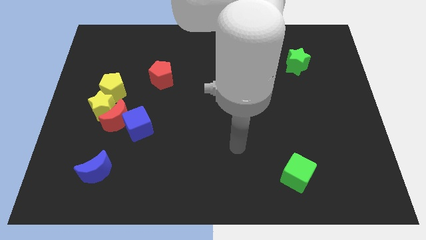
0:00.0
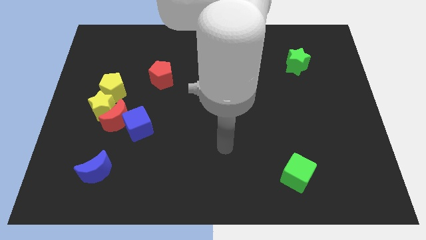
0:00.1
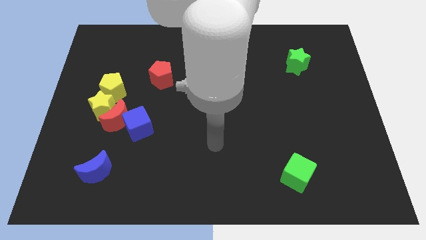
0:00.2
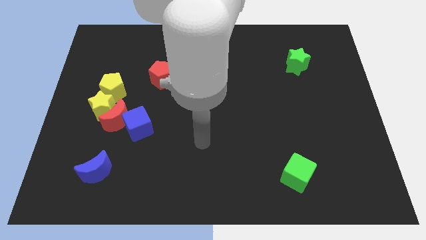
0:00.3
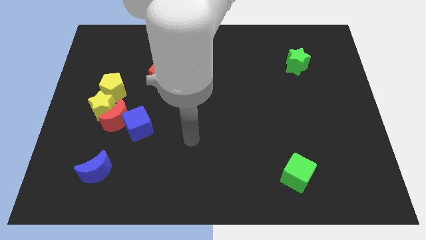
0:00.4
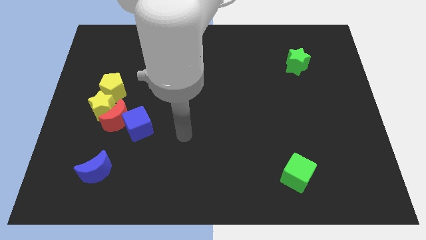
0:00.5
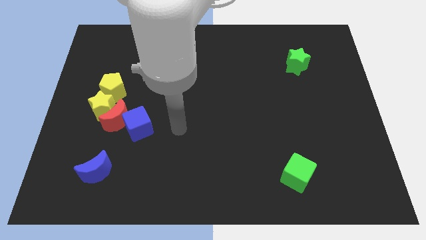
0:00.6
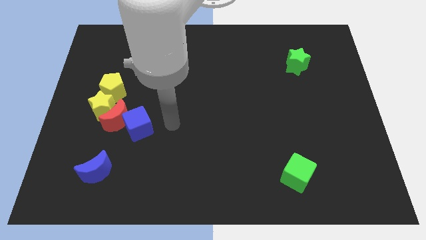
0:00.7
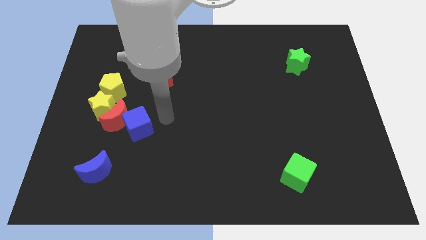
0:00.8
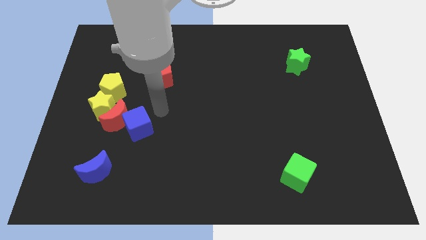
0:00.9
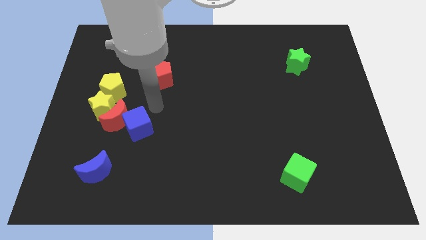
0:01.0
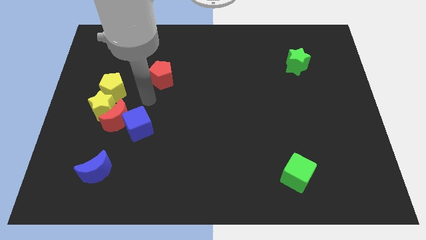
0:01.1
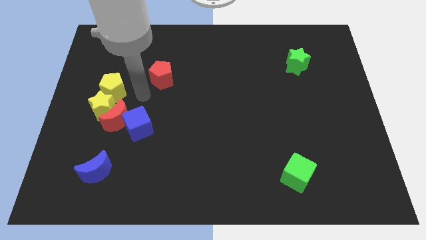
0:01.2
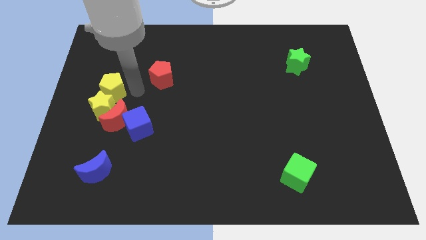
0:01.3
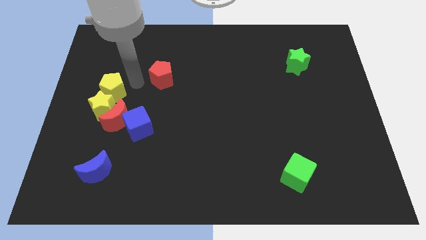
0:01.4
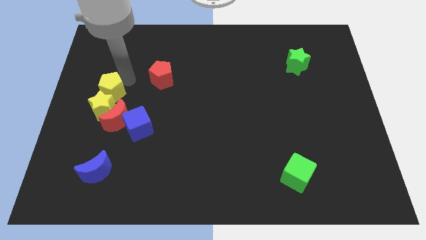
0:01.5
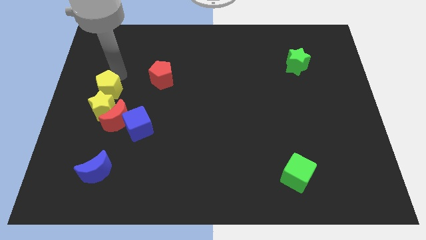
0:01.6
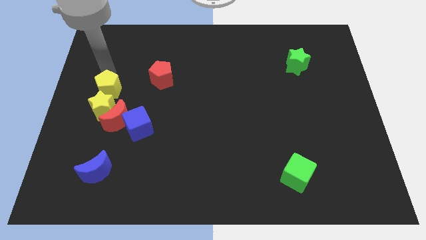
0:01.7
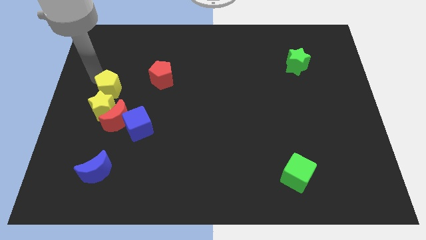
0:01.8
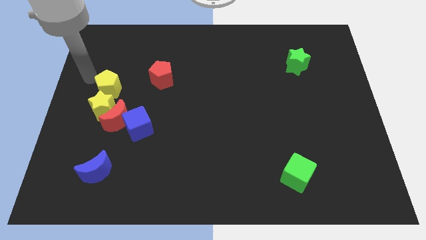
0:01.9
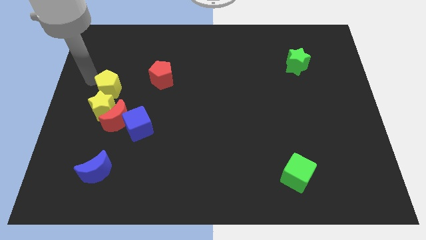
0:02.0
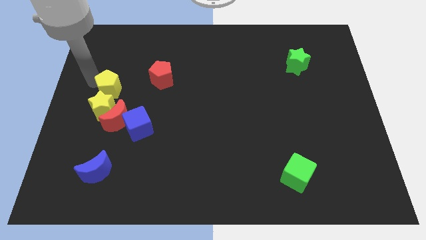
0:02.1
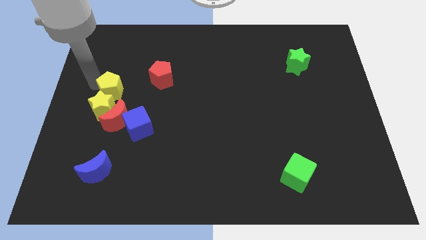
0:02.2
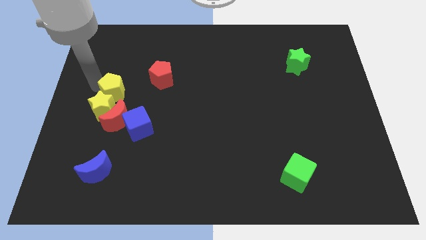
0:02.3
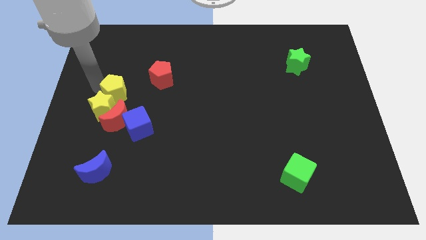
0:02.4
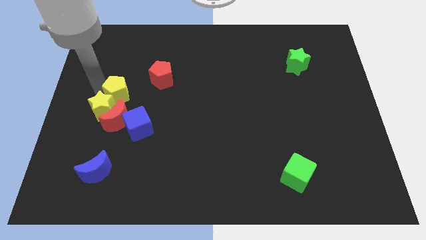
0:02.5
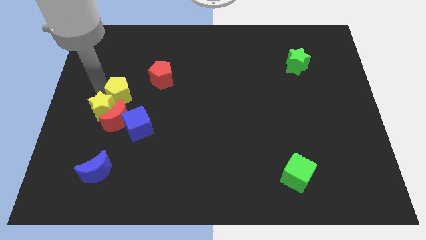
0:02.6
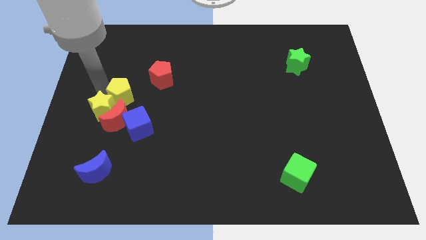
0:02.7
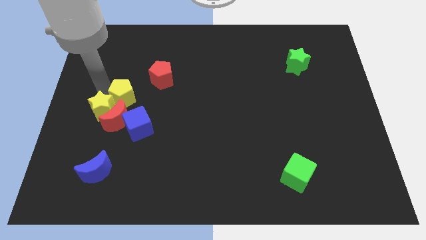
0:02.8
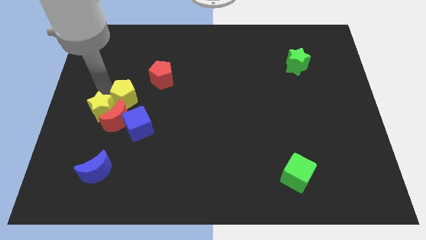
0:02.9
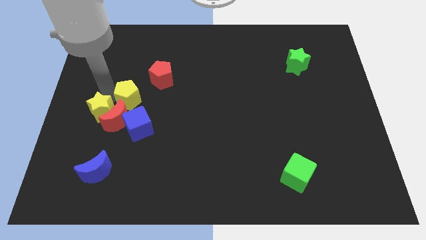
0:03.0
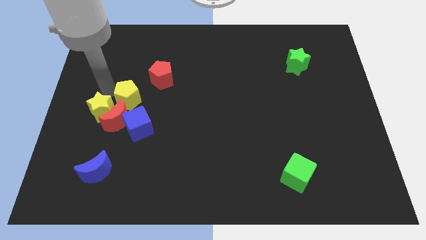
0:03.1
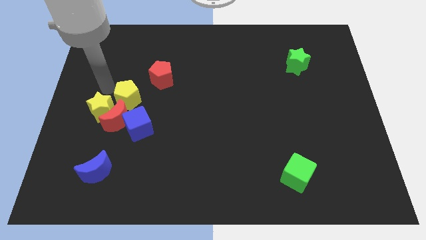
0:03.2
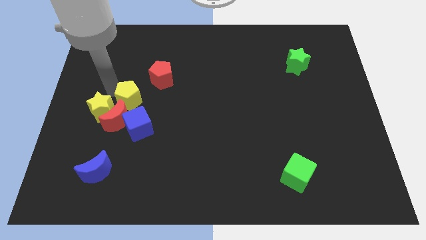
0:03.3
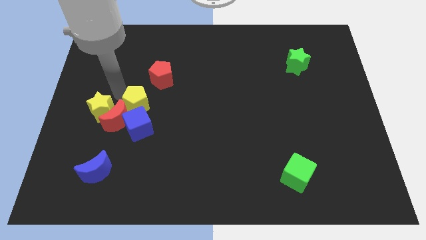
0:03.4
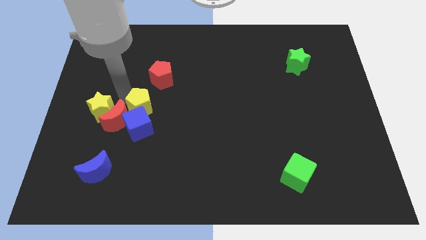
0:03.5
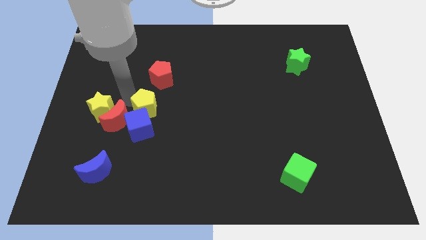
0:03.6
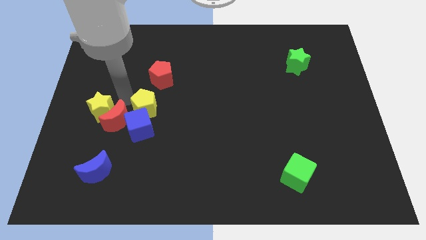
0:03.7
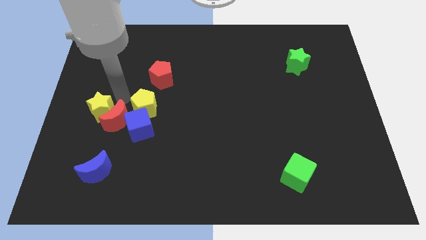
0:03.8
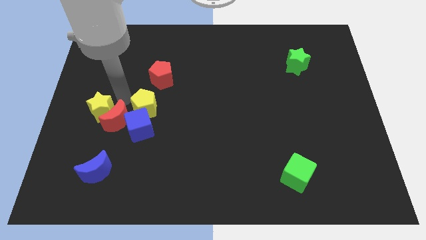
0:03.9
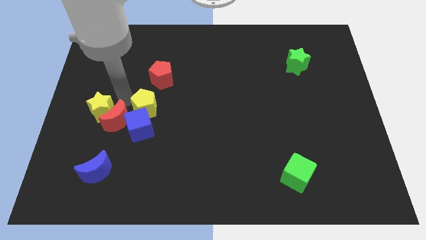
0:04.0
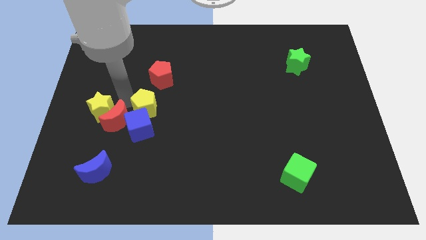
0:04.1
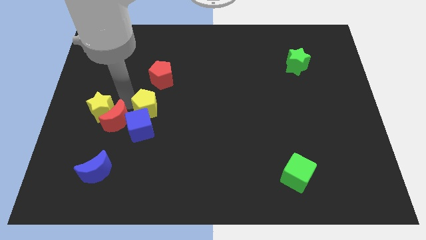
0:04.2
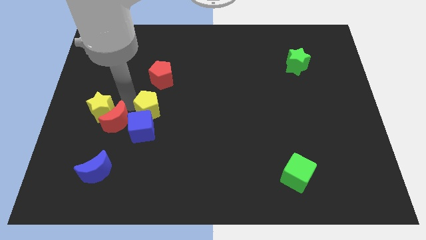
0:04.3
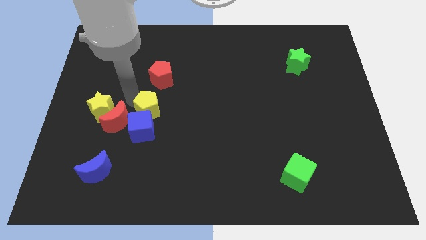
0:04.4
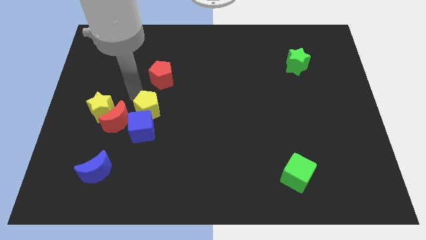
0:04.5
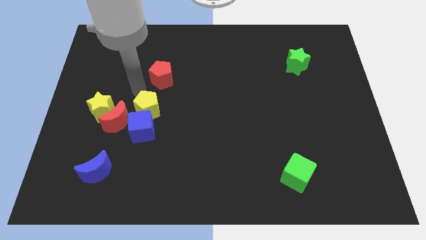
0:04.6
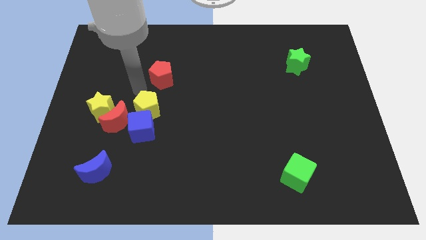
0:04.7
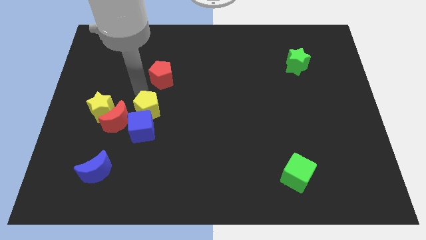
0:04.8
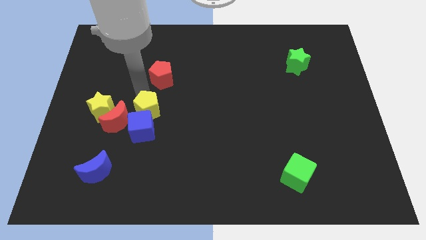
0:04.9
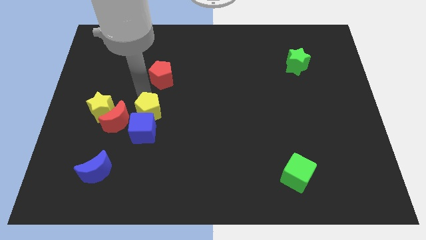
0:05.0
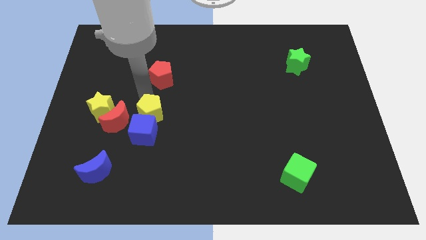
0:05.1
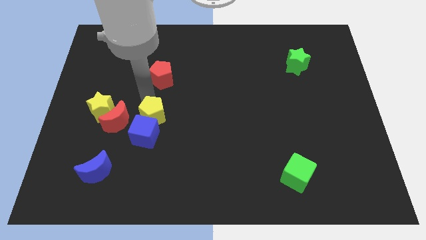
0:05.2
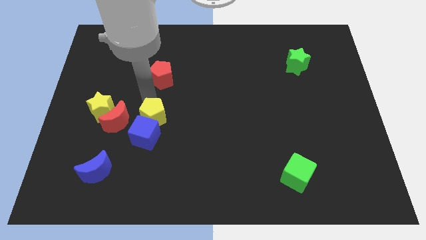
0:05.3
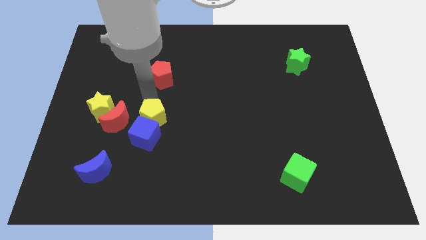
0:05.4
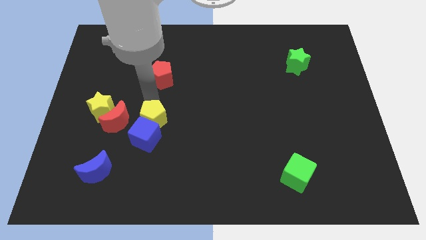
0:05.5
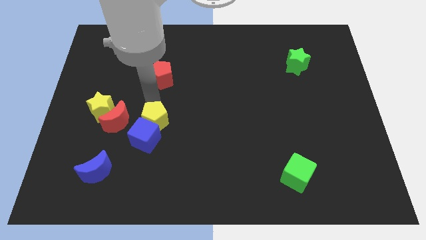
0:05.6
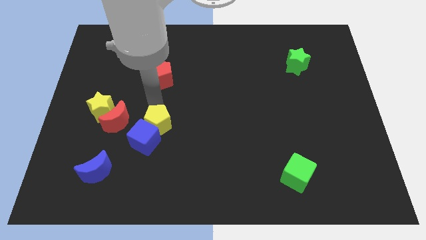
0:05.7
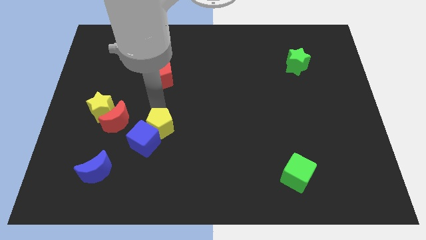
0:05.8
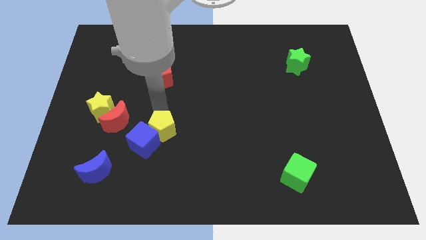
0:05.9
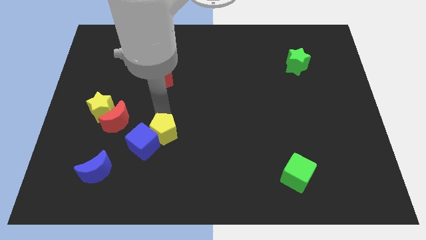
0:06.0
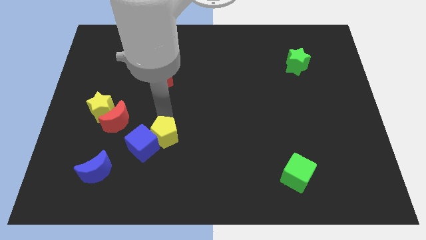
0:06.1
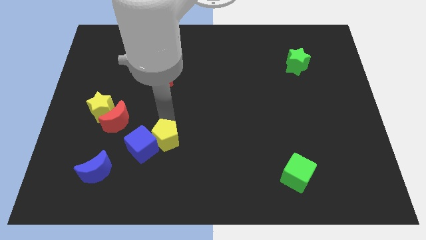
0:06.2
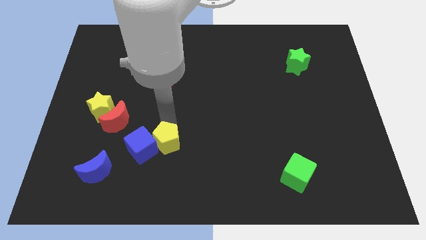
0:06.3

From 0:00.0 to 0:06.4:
move the yellow pentagon diagonally down and to the right of the blue cube

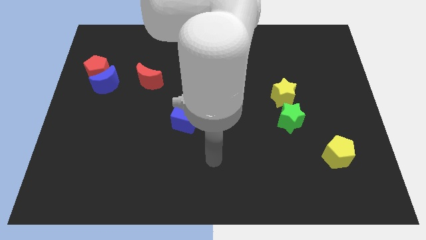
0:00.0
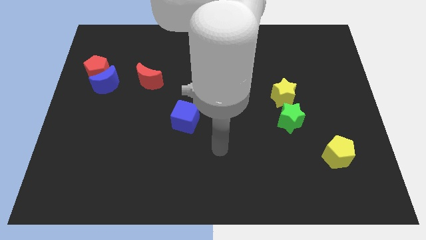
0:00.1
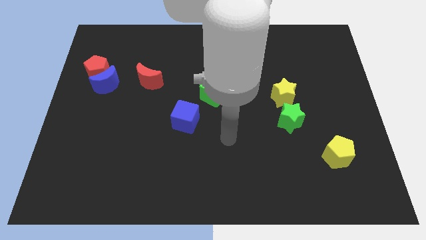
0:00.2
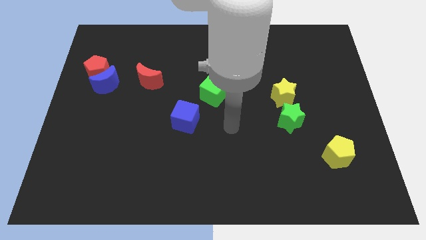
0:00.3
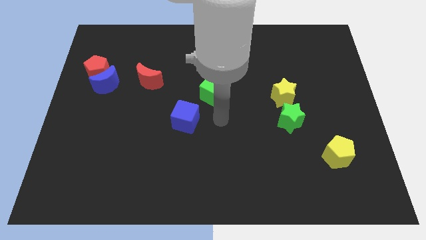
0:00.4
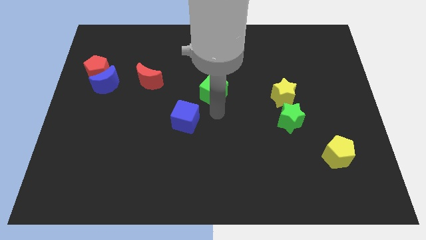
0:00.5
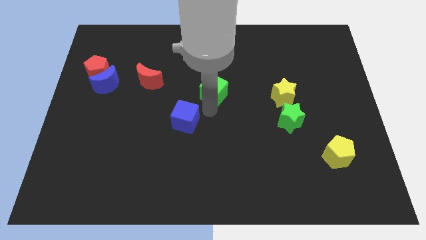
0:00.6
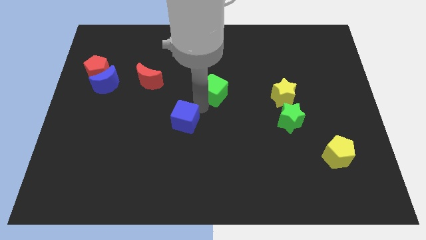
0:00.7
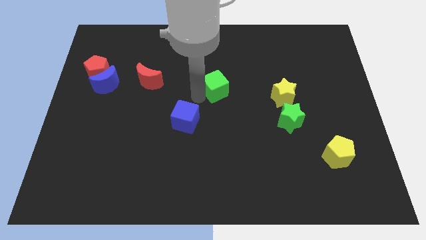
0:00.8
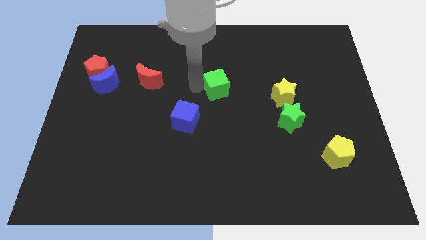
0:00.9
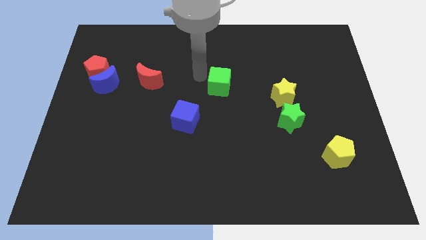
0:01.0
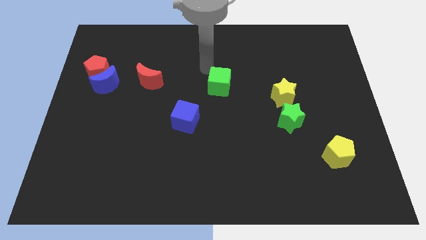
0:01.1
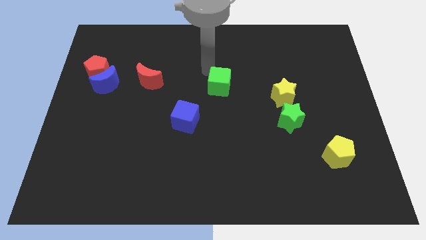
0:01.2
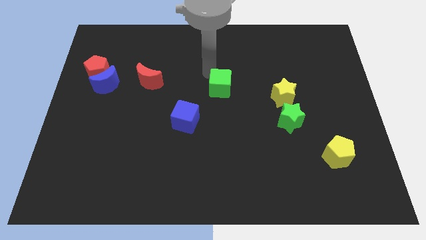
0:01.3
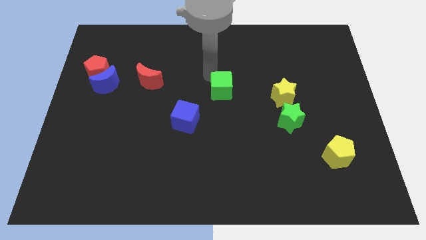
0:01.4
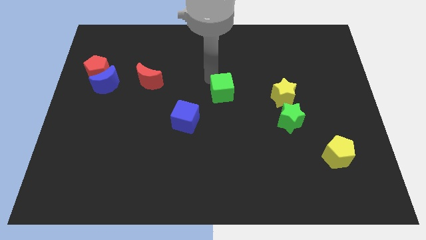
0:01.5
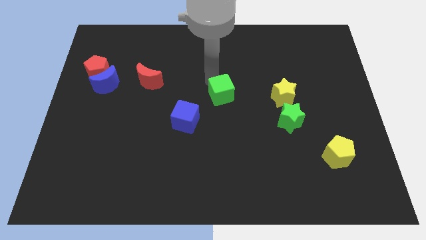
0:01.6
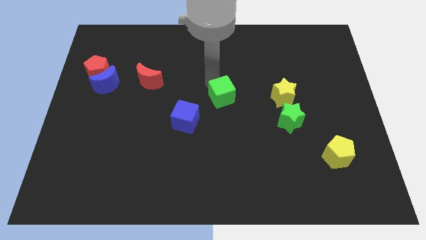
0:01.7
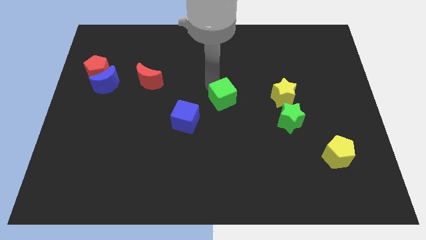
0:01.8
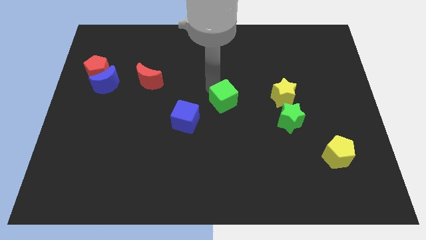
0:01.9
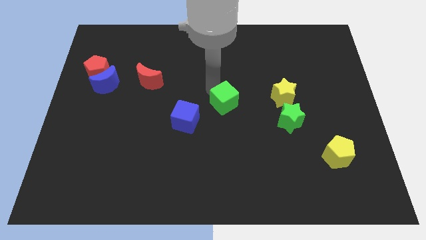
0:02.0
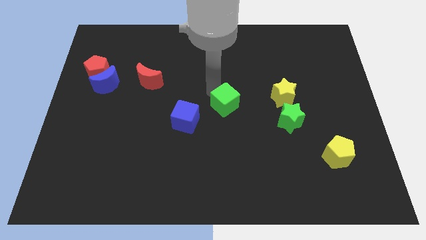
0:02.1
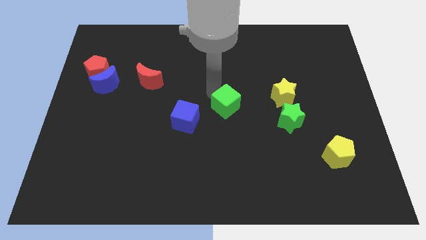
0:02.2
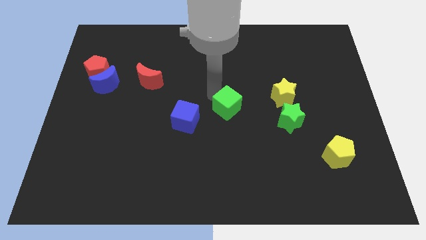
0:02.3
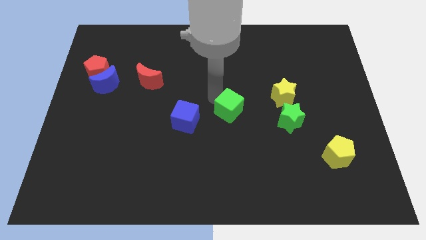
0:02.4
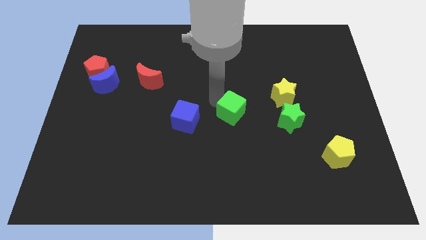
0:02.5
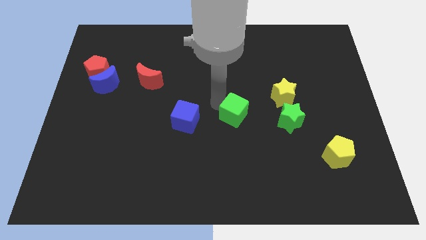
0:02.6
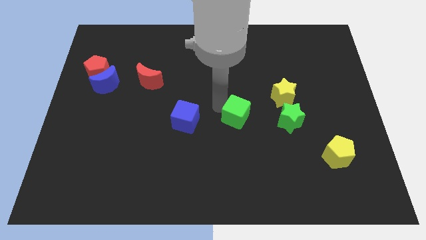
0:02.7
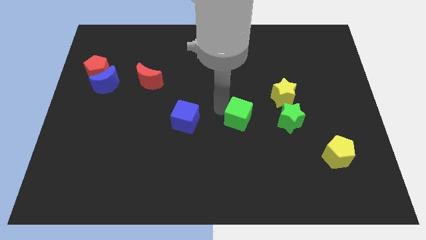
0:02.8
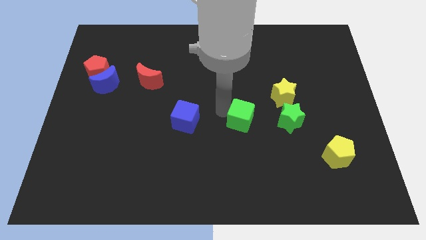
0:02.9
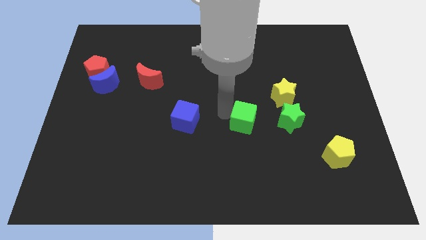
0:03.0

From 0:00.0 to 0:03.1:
slide the green cube to the bottom left of the yellow star
